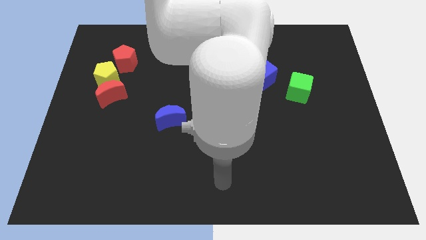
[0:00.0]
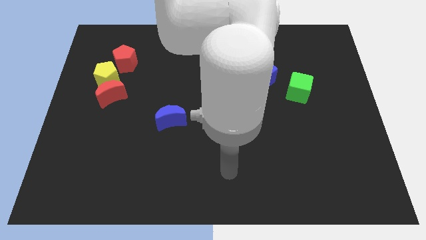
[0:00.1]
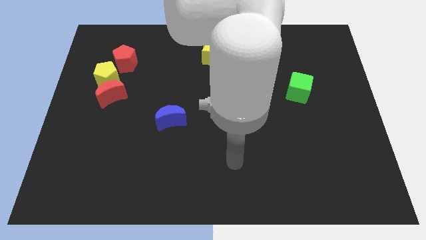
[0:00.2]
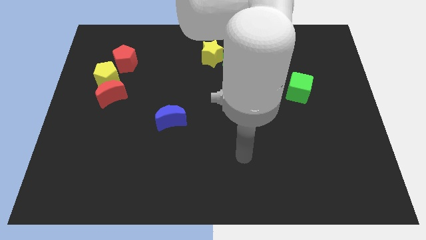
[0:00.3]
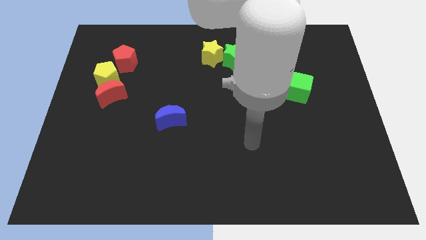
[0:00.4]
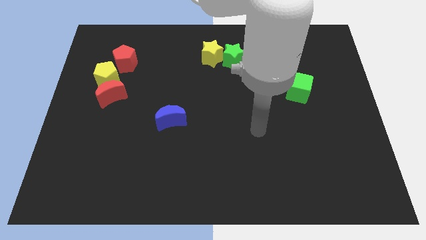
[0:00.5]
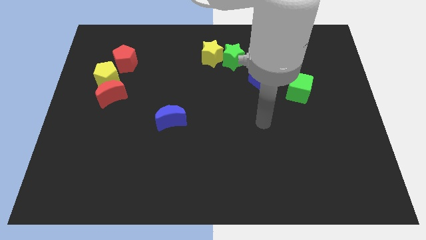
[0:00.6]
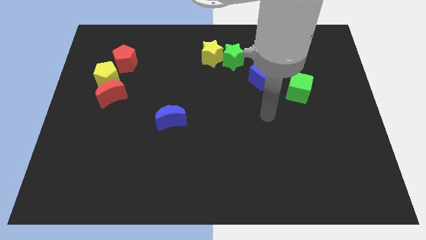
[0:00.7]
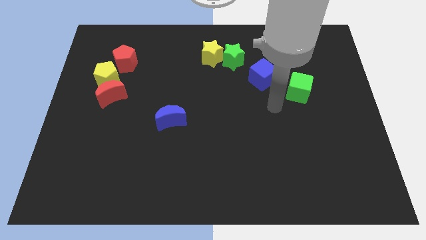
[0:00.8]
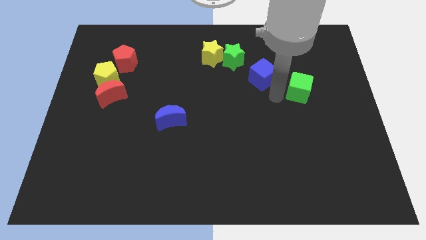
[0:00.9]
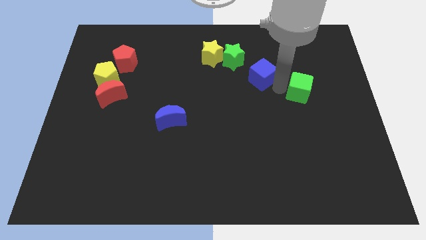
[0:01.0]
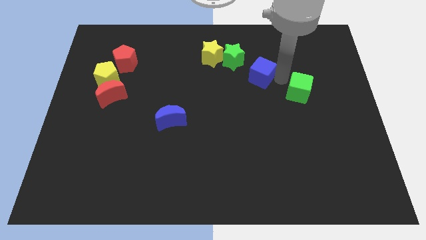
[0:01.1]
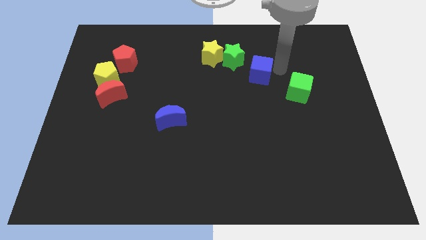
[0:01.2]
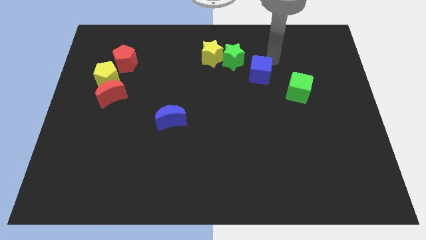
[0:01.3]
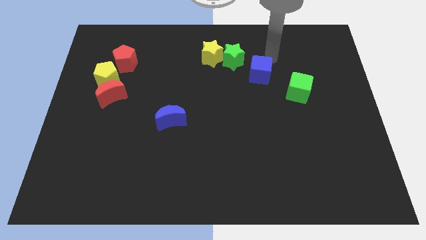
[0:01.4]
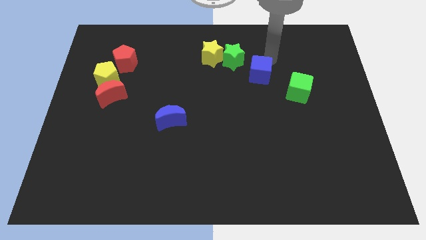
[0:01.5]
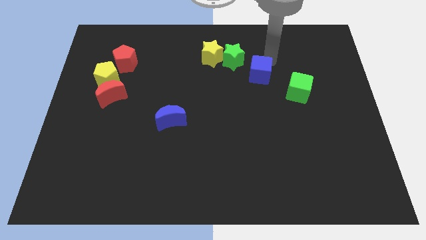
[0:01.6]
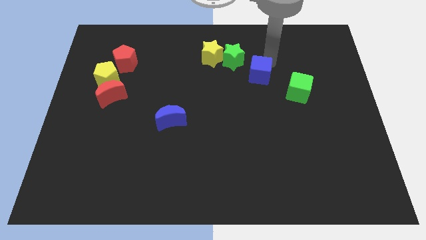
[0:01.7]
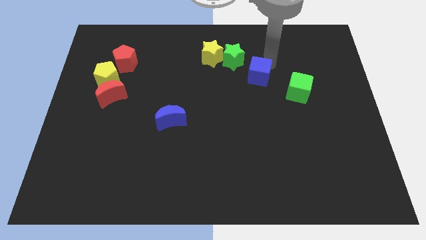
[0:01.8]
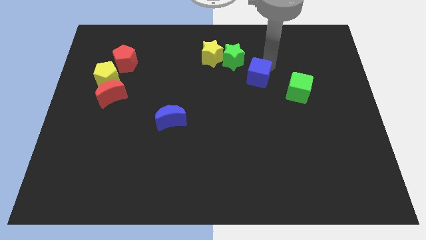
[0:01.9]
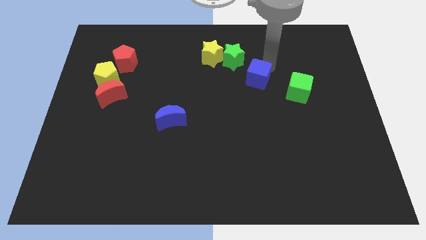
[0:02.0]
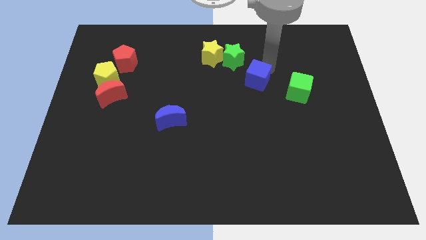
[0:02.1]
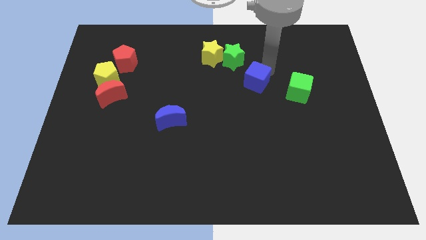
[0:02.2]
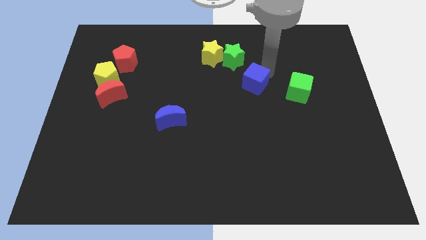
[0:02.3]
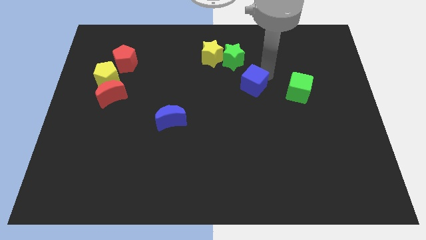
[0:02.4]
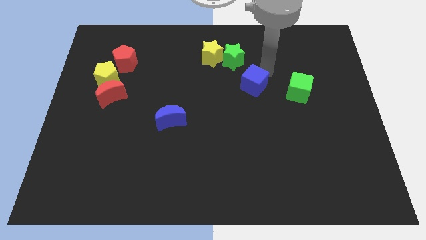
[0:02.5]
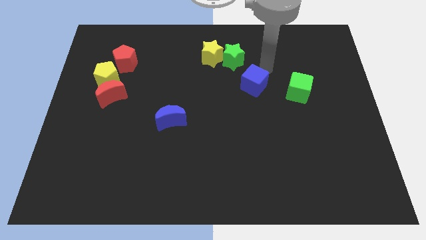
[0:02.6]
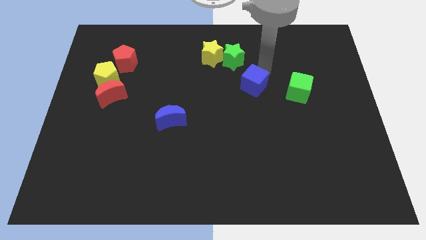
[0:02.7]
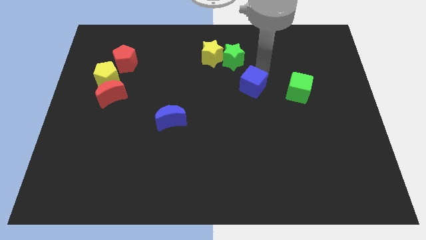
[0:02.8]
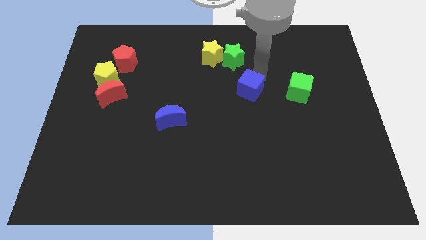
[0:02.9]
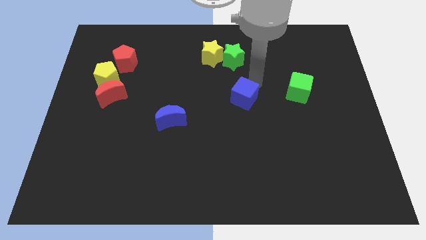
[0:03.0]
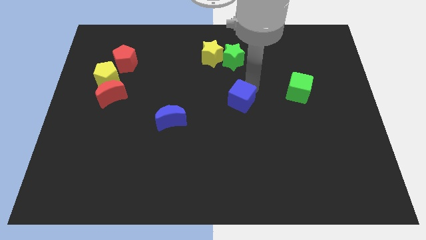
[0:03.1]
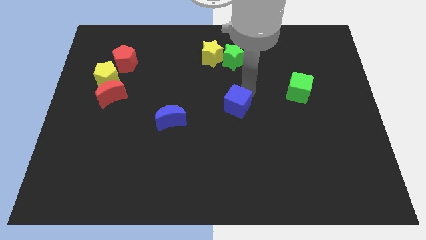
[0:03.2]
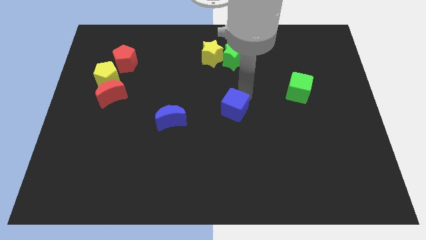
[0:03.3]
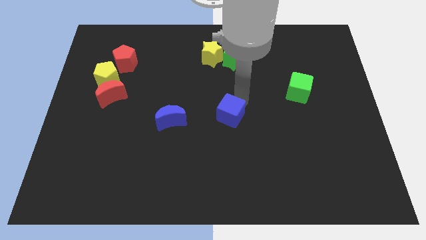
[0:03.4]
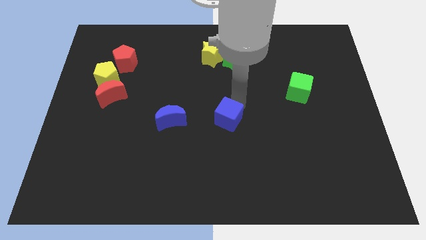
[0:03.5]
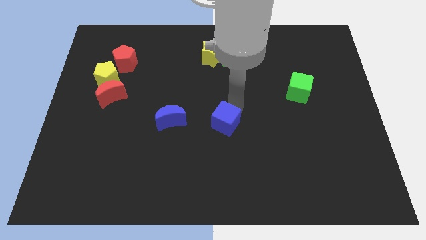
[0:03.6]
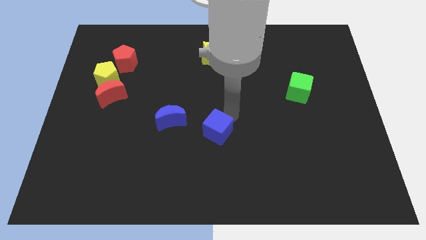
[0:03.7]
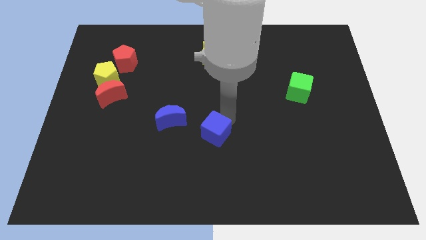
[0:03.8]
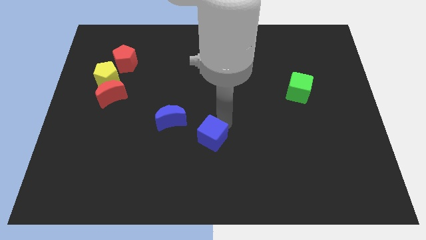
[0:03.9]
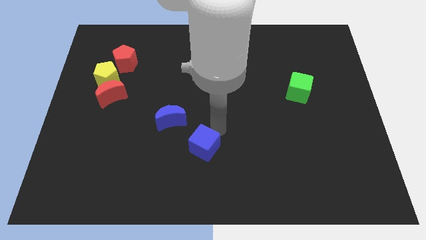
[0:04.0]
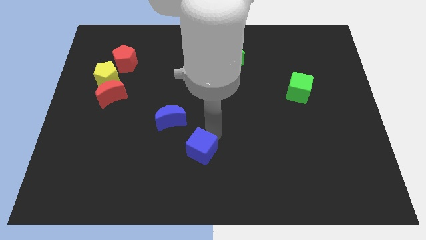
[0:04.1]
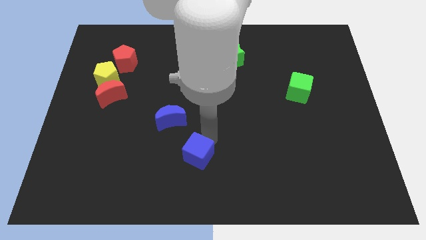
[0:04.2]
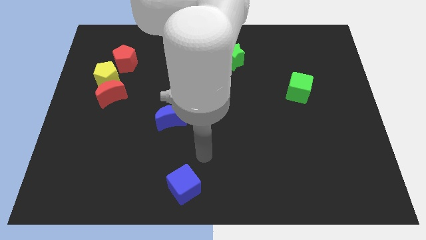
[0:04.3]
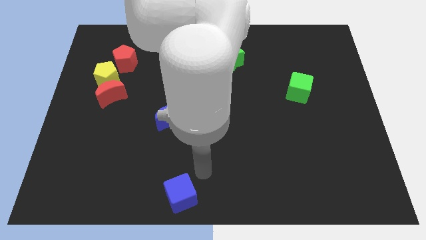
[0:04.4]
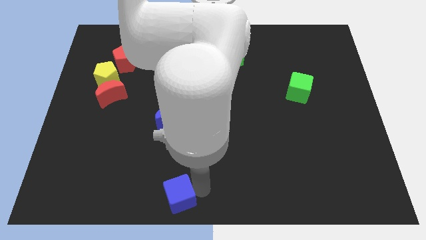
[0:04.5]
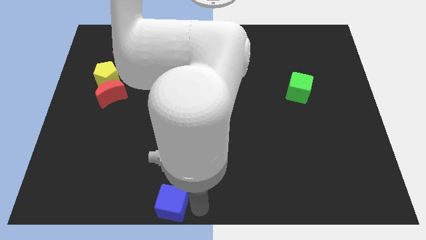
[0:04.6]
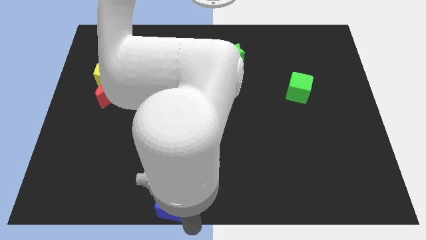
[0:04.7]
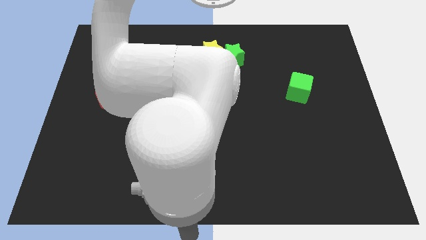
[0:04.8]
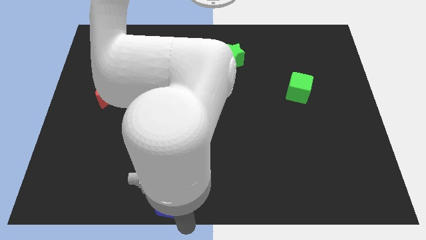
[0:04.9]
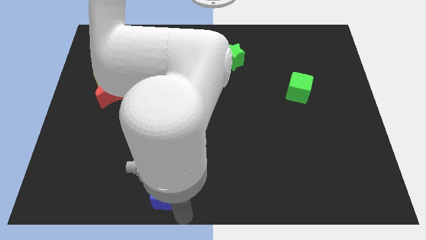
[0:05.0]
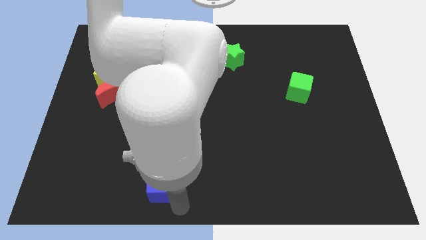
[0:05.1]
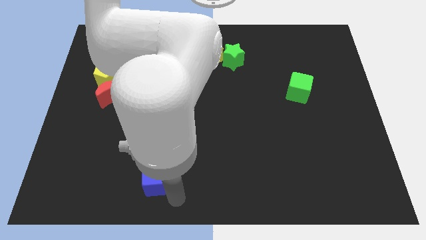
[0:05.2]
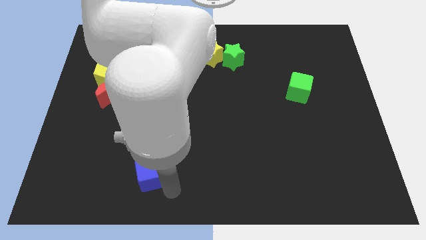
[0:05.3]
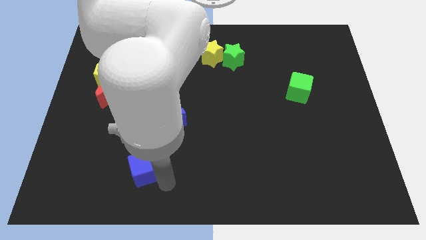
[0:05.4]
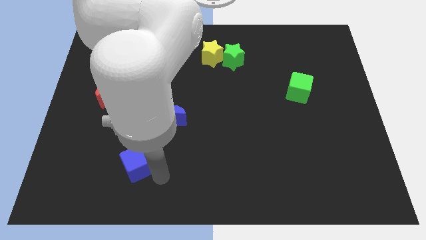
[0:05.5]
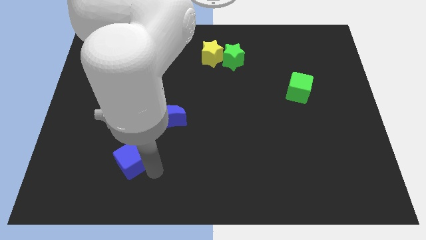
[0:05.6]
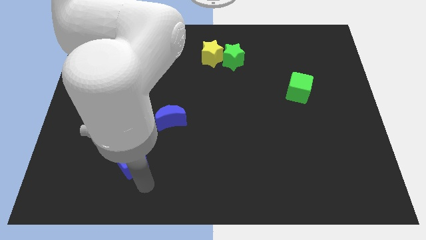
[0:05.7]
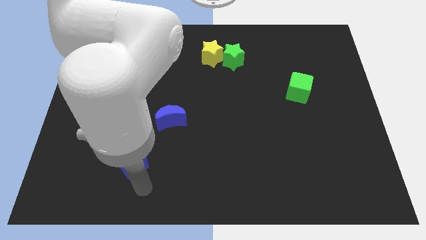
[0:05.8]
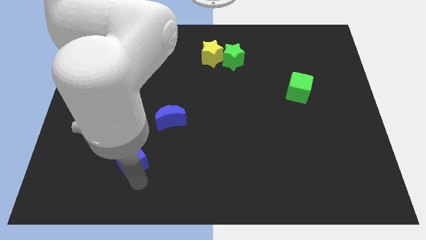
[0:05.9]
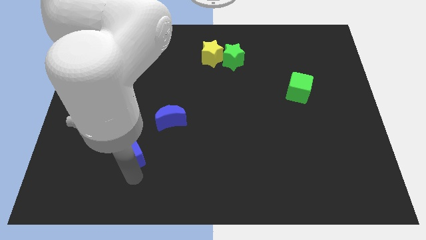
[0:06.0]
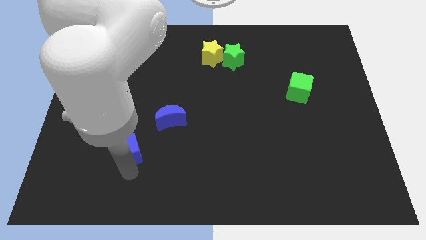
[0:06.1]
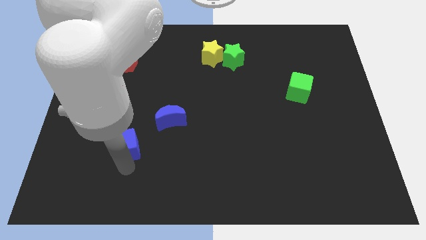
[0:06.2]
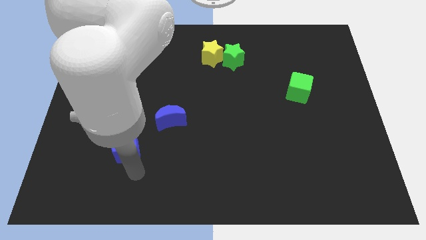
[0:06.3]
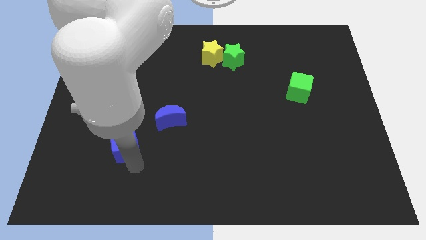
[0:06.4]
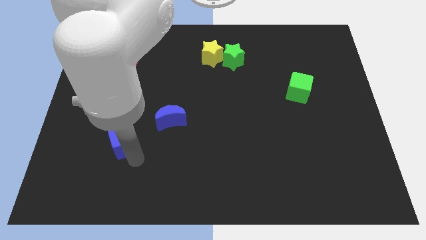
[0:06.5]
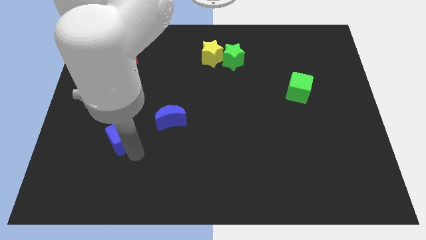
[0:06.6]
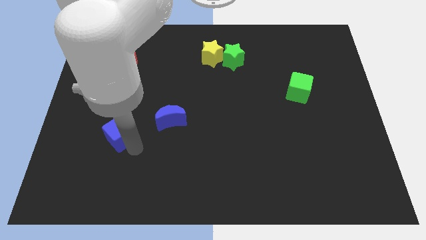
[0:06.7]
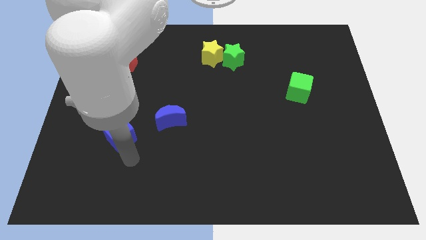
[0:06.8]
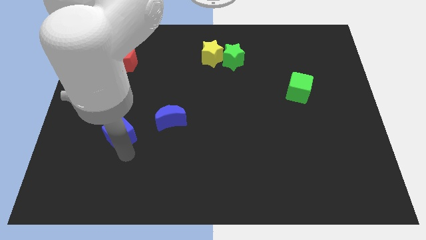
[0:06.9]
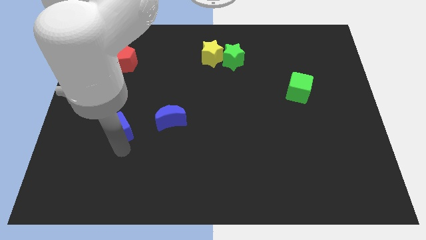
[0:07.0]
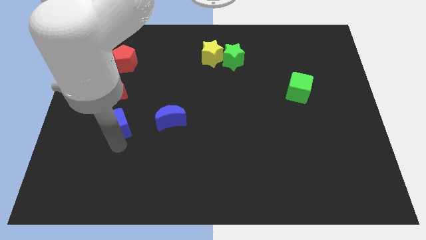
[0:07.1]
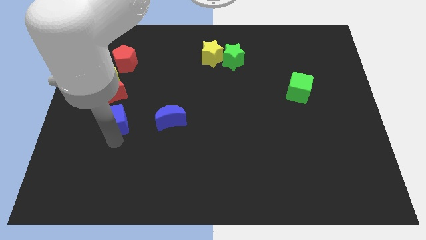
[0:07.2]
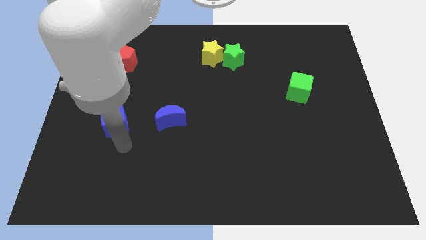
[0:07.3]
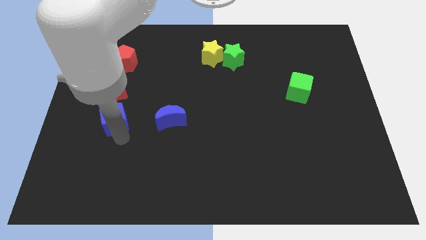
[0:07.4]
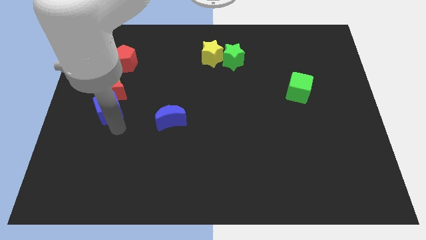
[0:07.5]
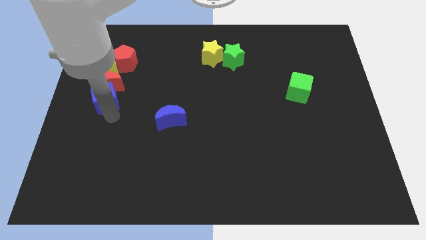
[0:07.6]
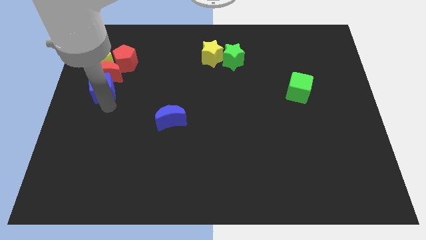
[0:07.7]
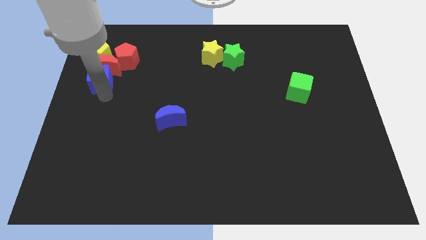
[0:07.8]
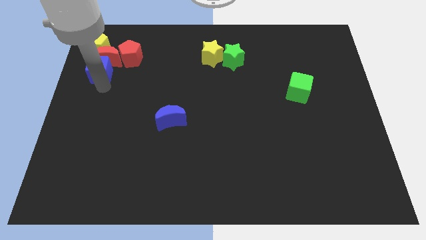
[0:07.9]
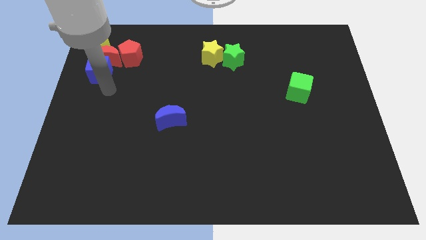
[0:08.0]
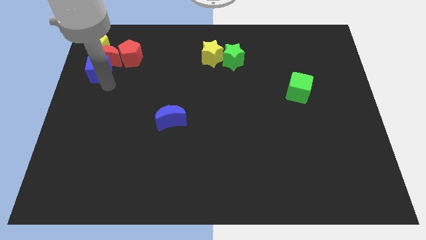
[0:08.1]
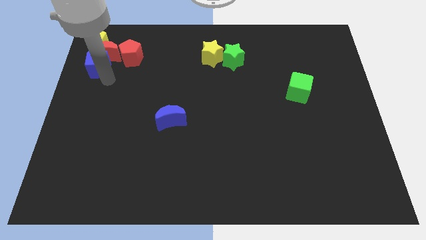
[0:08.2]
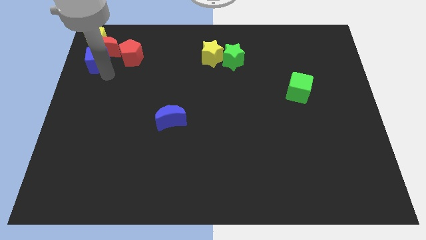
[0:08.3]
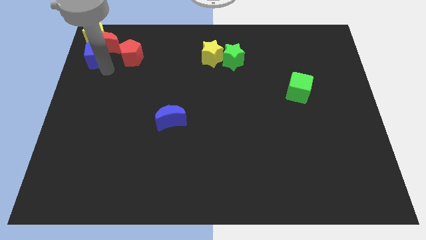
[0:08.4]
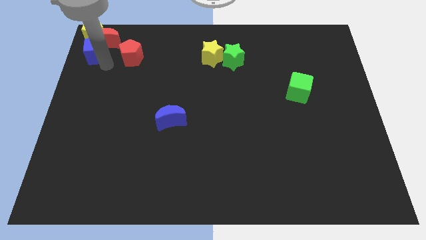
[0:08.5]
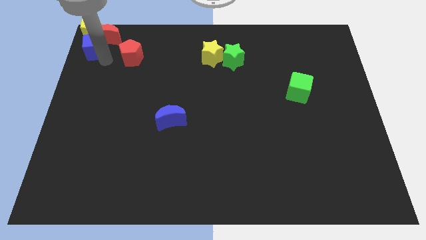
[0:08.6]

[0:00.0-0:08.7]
slide the blue cube to the top left of the board
